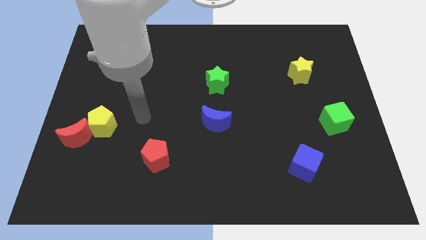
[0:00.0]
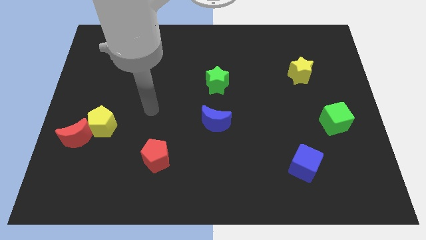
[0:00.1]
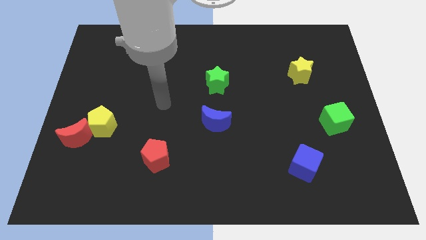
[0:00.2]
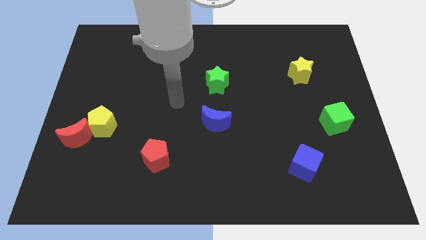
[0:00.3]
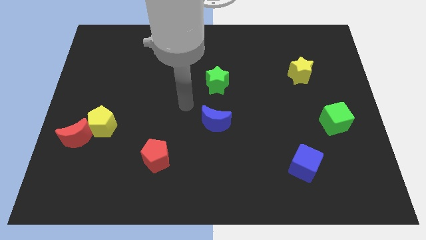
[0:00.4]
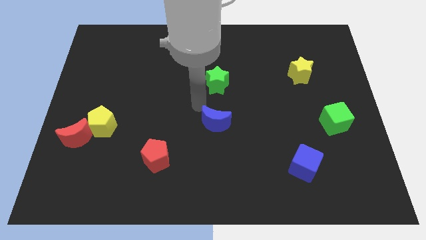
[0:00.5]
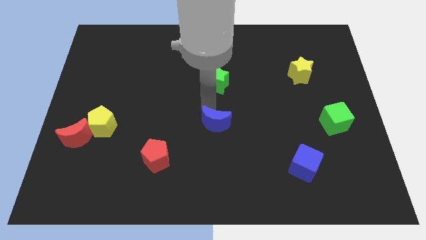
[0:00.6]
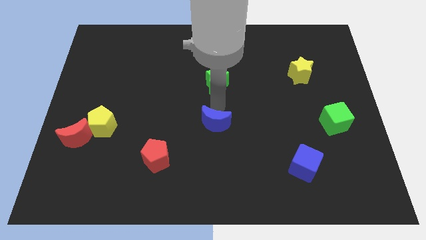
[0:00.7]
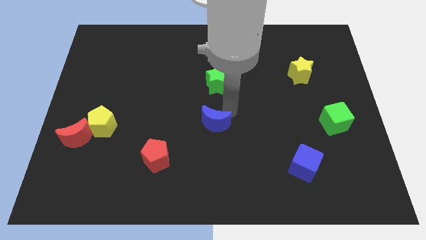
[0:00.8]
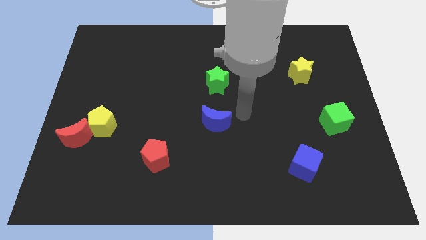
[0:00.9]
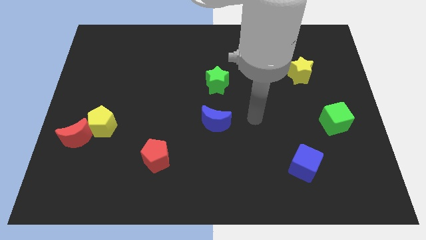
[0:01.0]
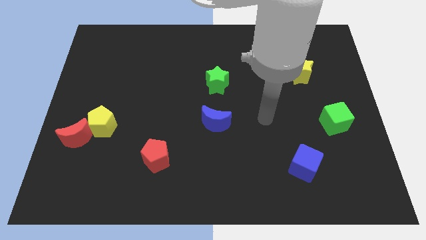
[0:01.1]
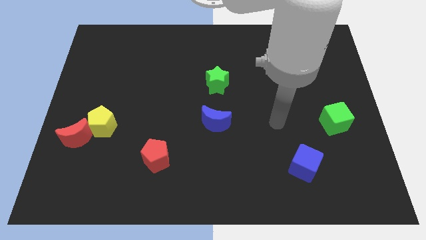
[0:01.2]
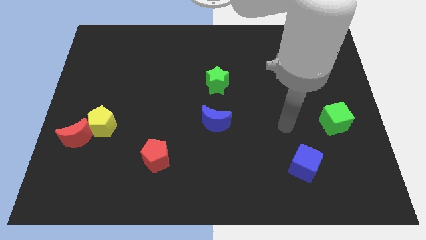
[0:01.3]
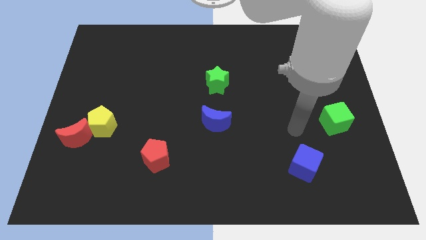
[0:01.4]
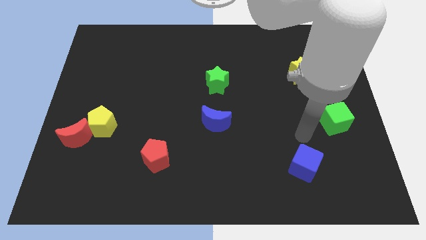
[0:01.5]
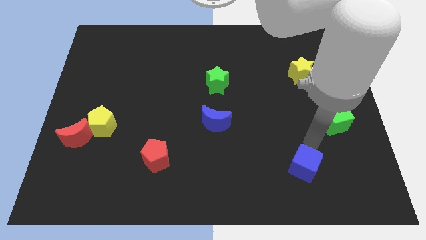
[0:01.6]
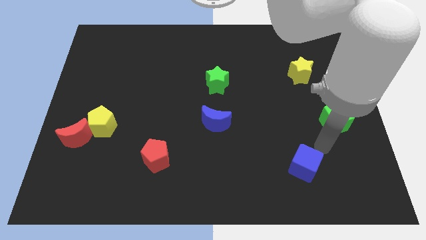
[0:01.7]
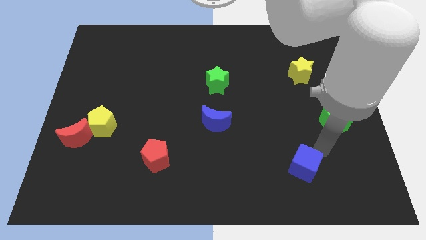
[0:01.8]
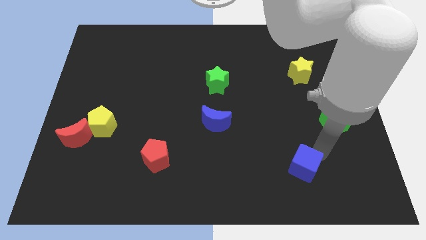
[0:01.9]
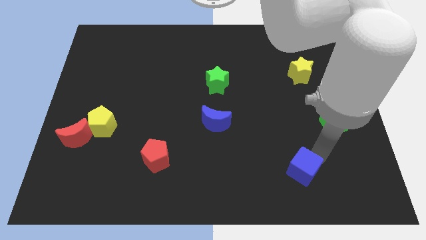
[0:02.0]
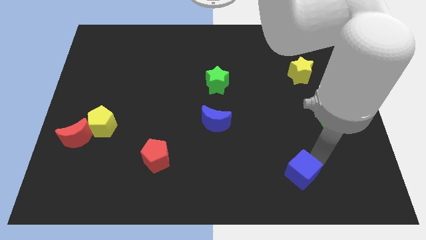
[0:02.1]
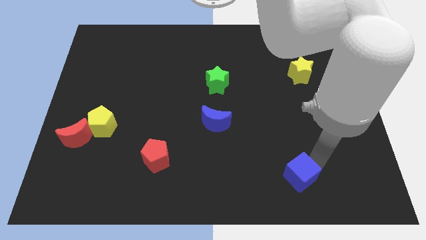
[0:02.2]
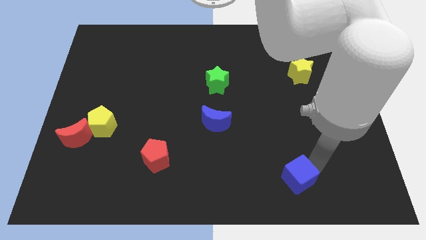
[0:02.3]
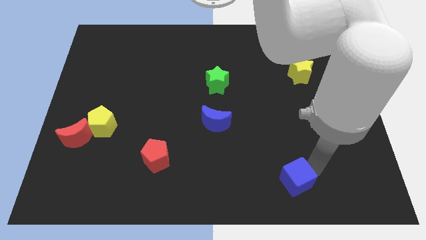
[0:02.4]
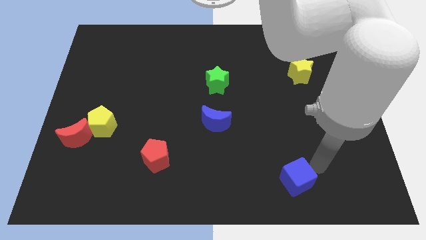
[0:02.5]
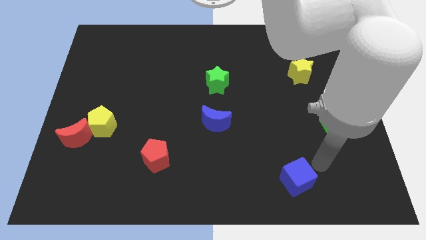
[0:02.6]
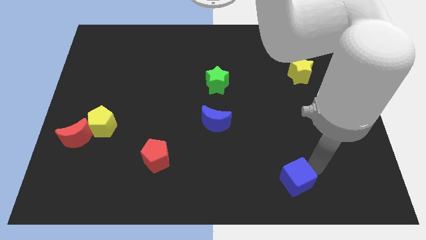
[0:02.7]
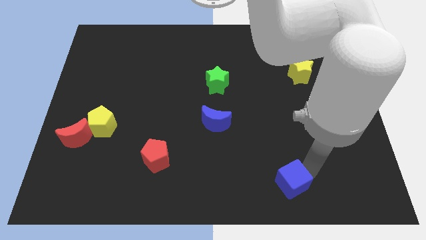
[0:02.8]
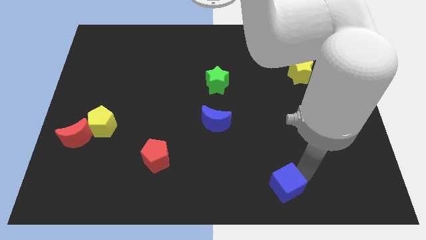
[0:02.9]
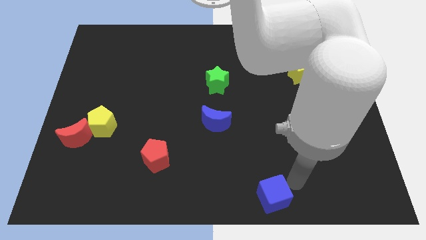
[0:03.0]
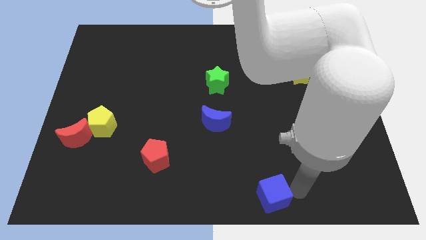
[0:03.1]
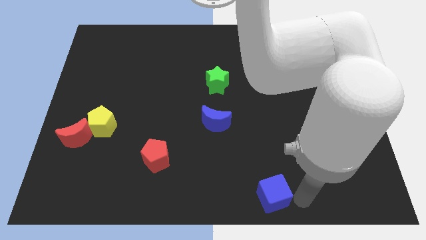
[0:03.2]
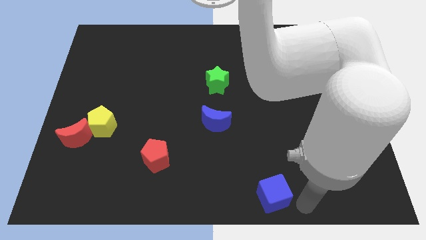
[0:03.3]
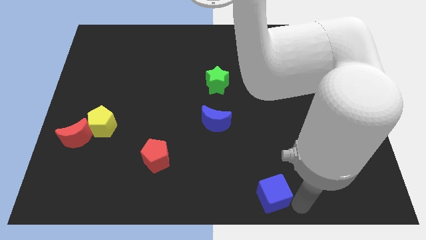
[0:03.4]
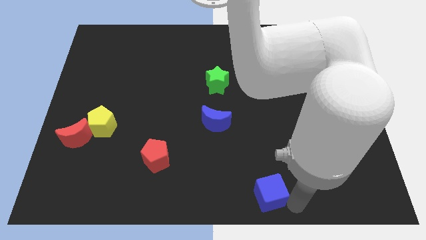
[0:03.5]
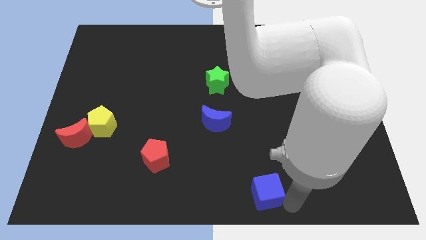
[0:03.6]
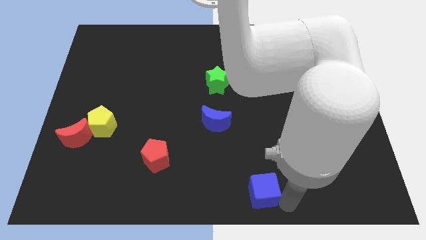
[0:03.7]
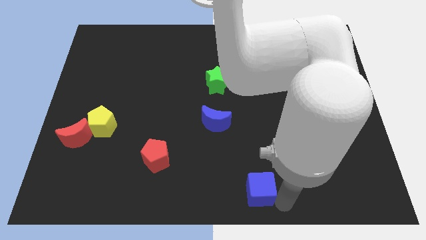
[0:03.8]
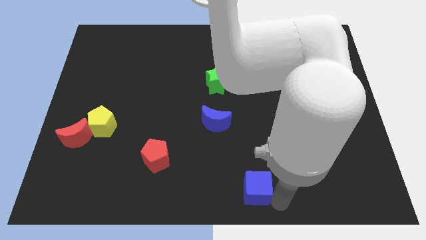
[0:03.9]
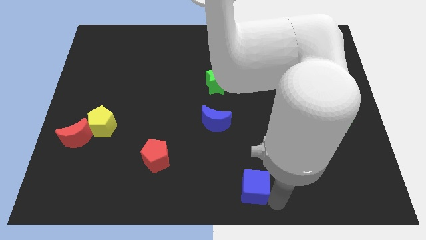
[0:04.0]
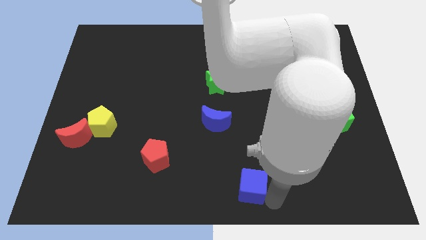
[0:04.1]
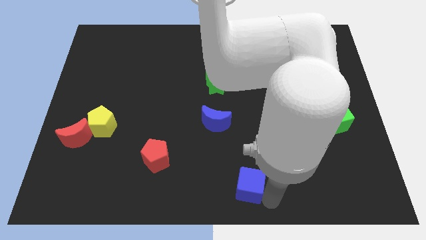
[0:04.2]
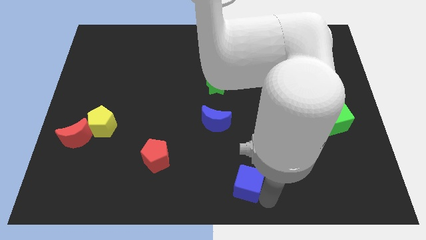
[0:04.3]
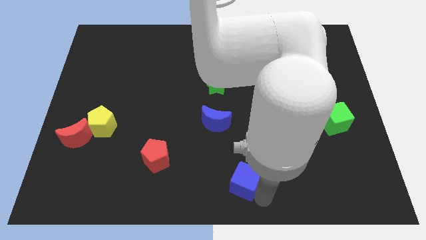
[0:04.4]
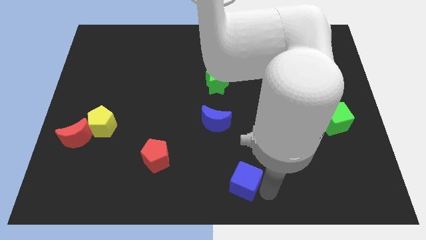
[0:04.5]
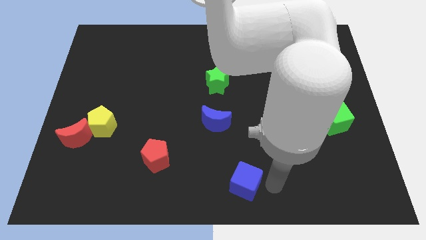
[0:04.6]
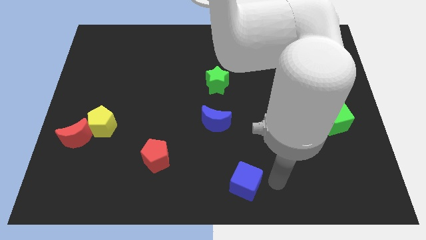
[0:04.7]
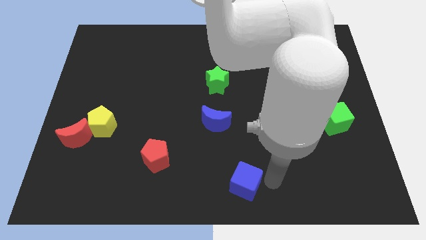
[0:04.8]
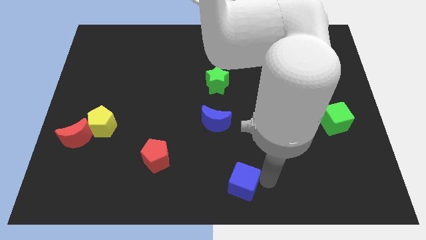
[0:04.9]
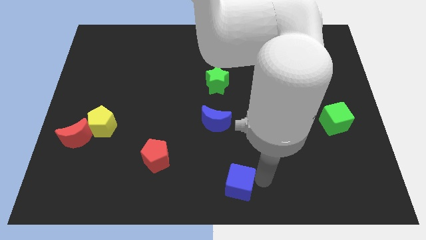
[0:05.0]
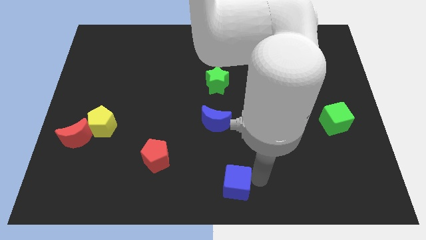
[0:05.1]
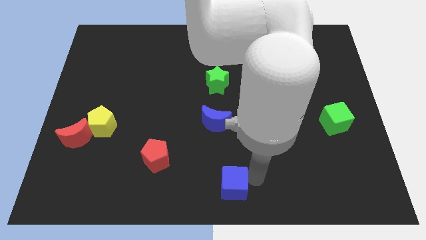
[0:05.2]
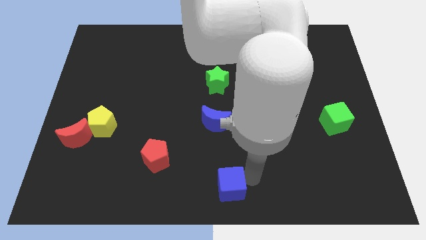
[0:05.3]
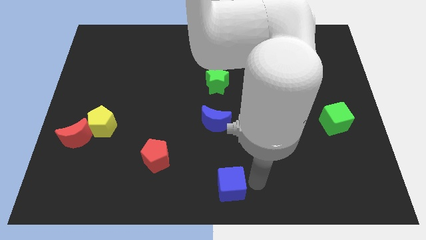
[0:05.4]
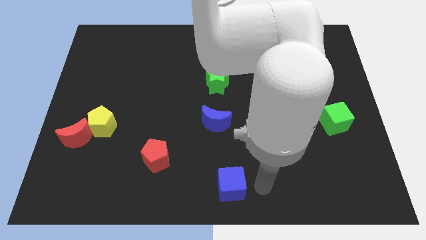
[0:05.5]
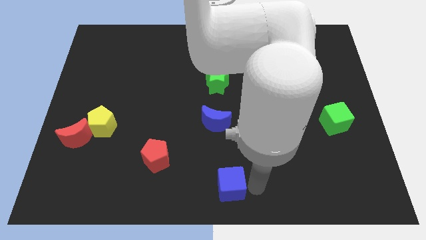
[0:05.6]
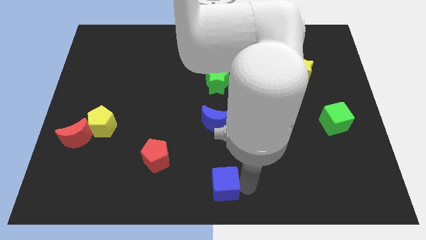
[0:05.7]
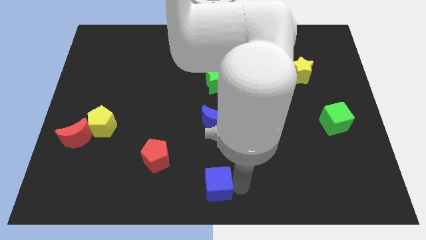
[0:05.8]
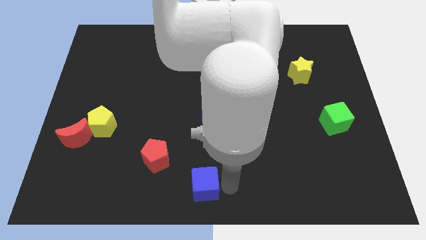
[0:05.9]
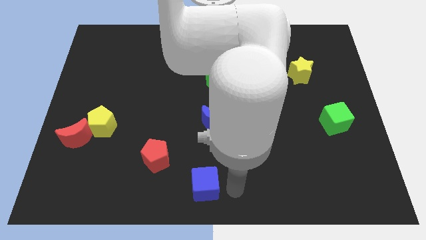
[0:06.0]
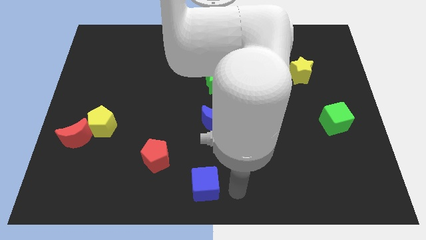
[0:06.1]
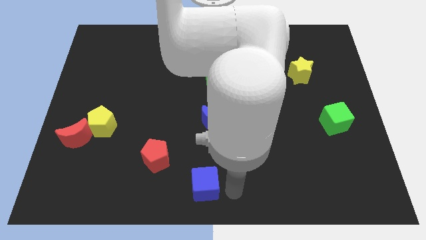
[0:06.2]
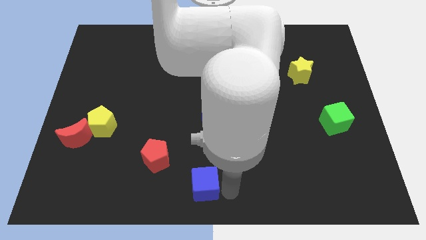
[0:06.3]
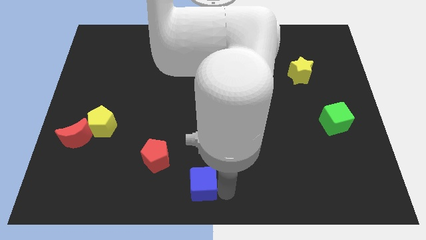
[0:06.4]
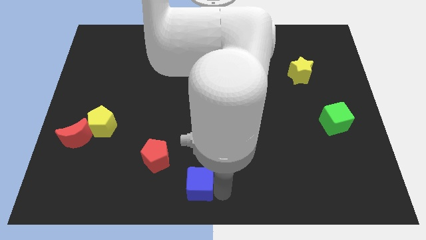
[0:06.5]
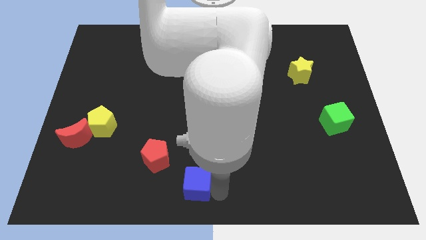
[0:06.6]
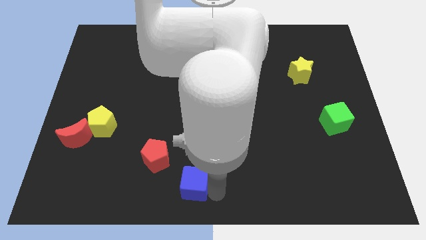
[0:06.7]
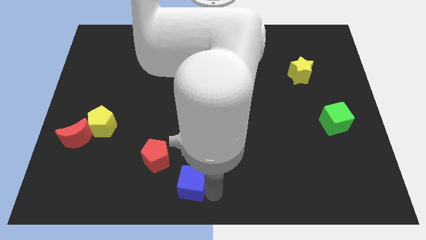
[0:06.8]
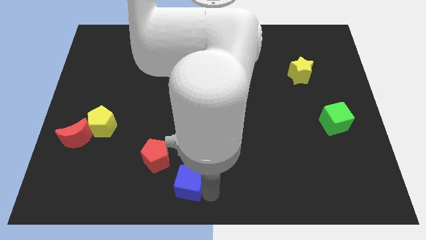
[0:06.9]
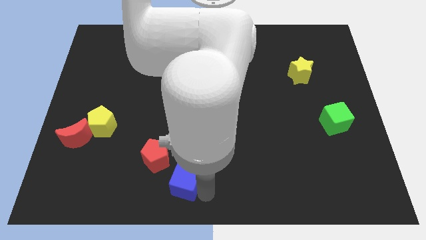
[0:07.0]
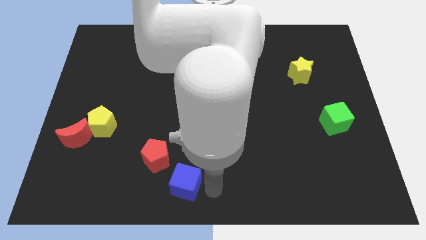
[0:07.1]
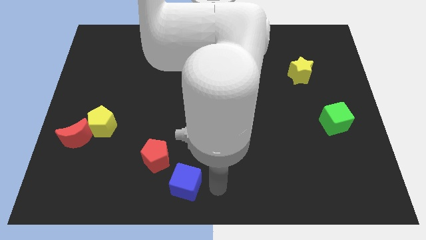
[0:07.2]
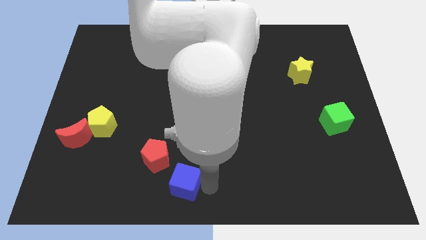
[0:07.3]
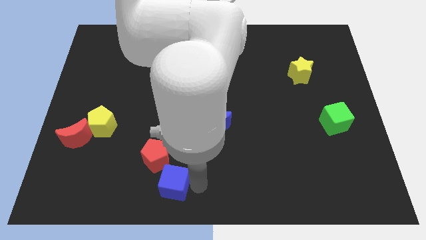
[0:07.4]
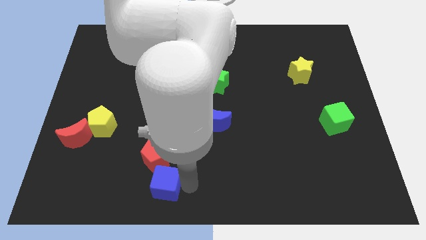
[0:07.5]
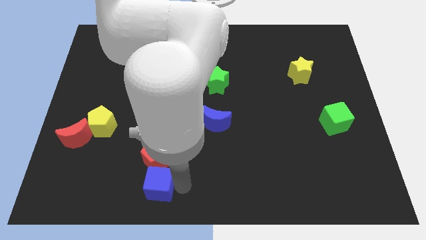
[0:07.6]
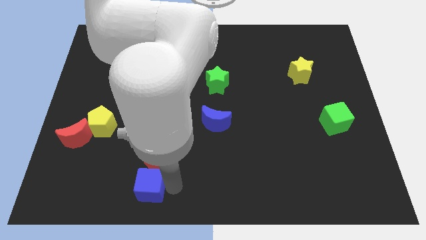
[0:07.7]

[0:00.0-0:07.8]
push the blue cube diagonally down and to the left of the red pentagon
